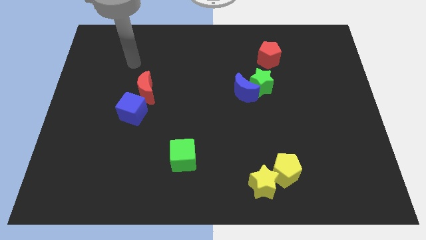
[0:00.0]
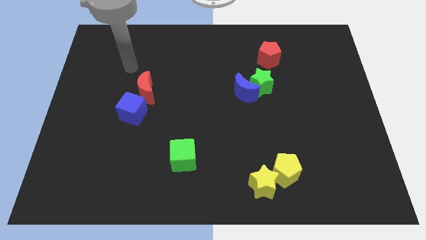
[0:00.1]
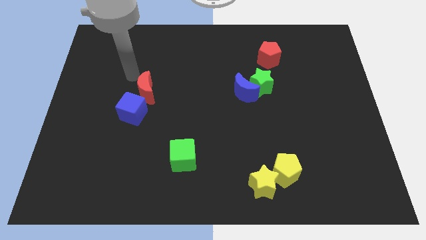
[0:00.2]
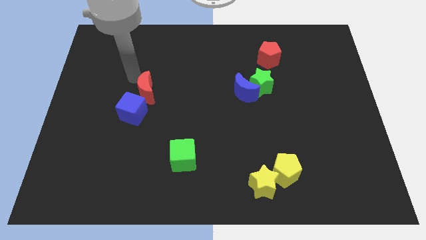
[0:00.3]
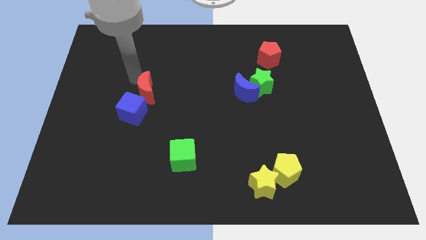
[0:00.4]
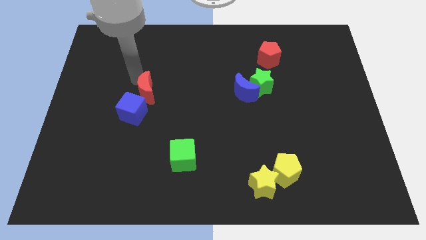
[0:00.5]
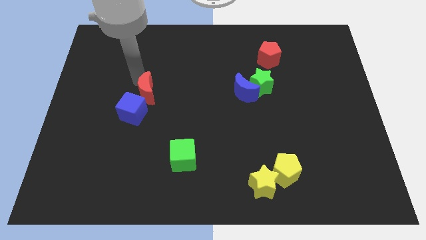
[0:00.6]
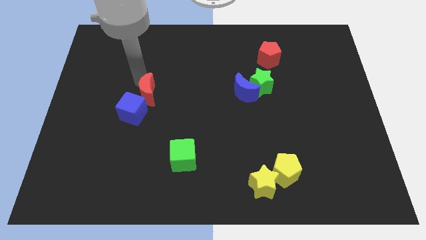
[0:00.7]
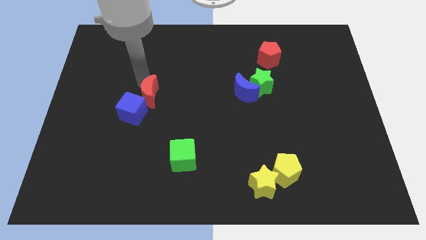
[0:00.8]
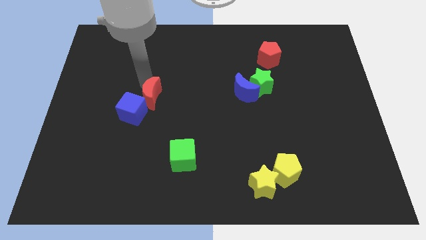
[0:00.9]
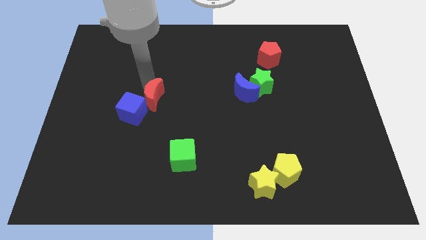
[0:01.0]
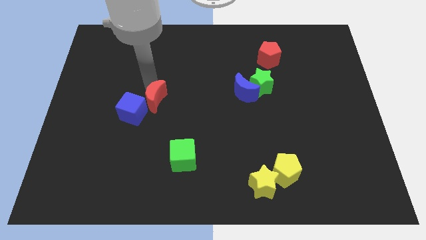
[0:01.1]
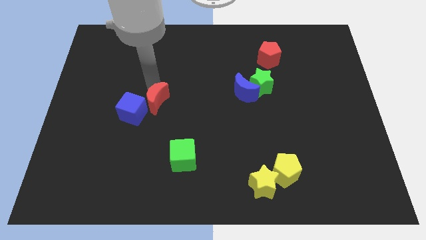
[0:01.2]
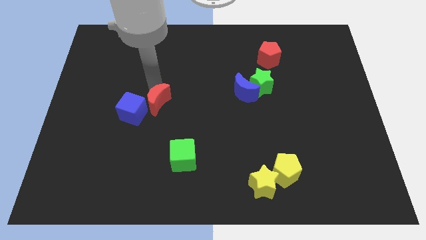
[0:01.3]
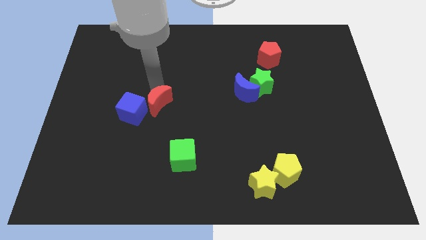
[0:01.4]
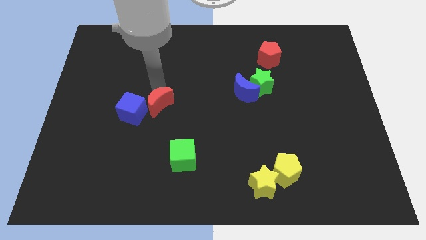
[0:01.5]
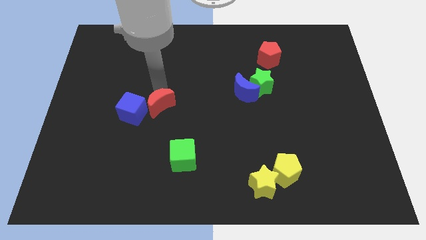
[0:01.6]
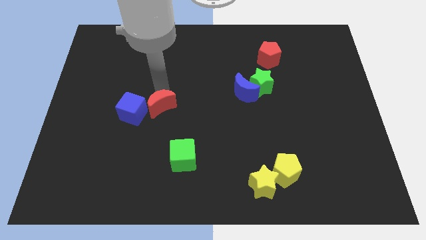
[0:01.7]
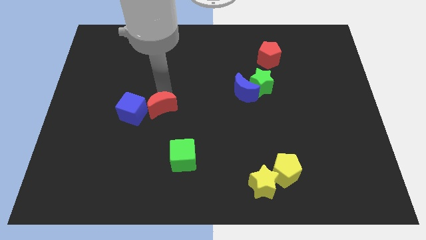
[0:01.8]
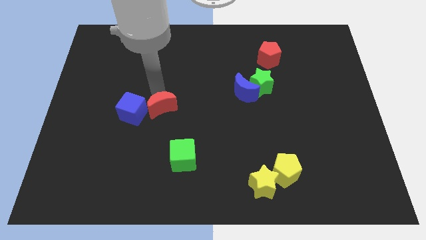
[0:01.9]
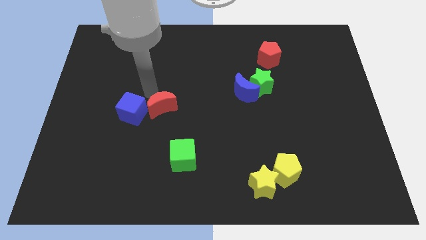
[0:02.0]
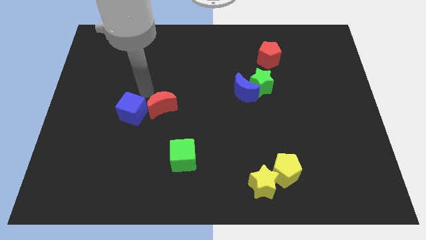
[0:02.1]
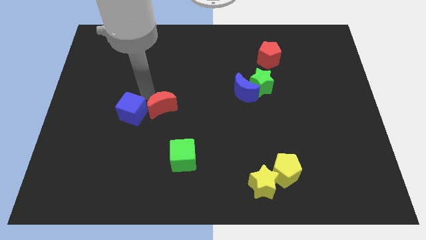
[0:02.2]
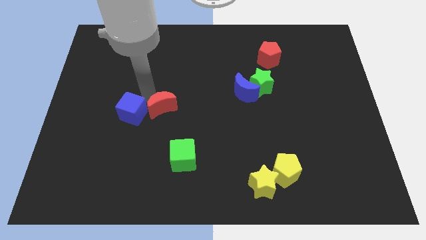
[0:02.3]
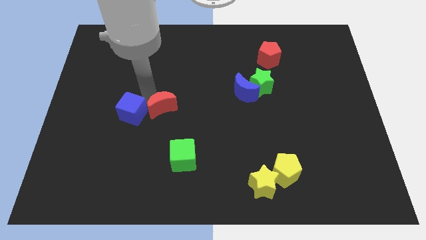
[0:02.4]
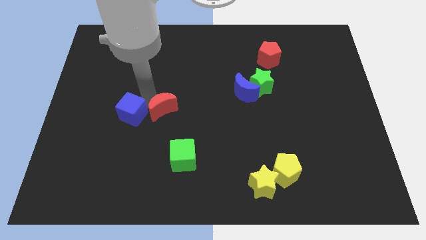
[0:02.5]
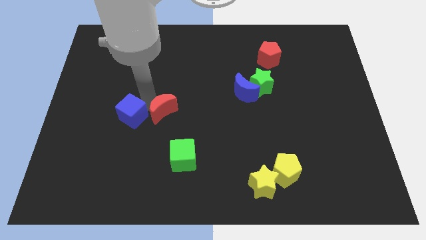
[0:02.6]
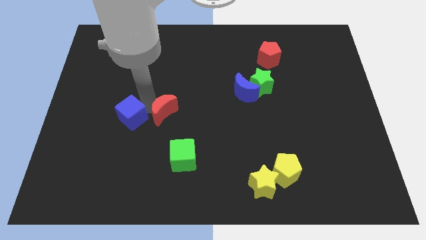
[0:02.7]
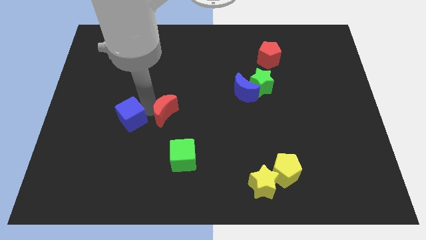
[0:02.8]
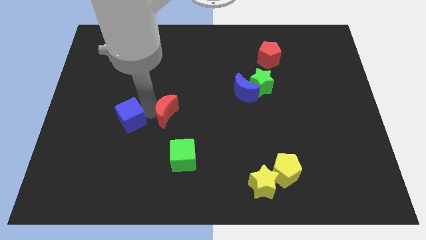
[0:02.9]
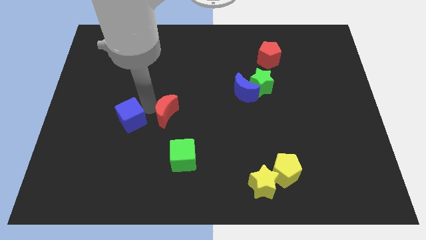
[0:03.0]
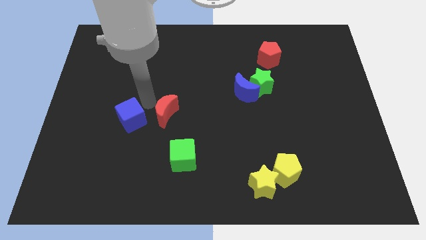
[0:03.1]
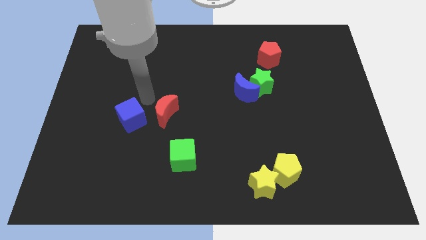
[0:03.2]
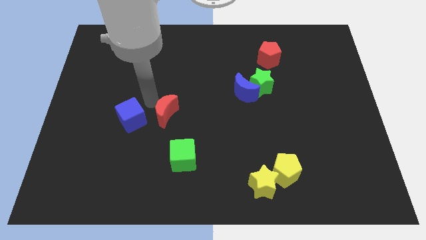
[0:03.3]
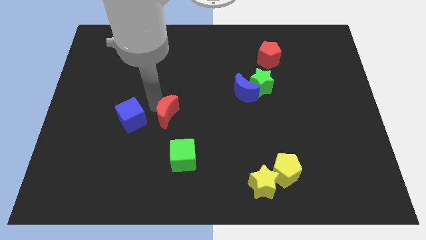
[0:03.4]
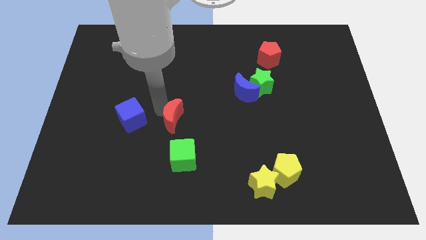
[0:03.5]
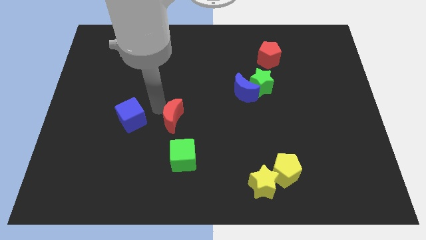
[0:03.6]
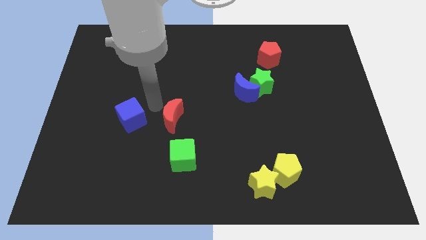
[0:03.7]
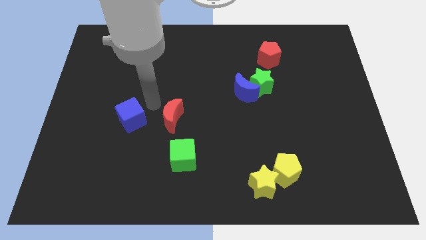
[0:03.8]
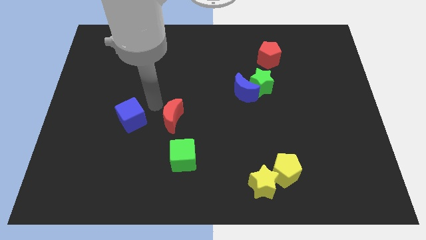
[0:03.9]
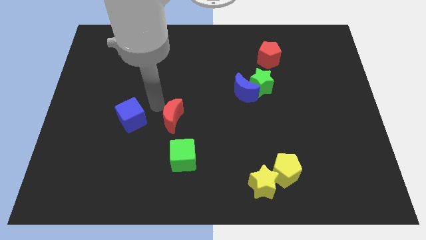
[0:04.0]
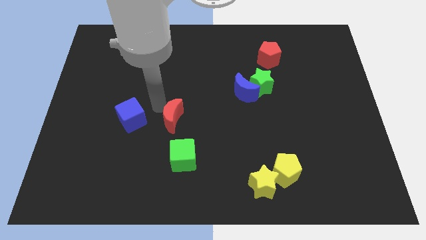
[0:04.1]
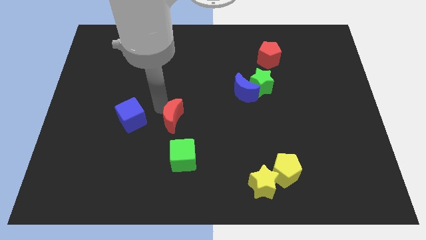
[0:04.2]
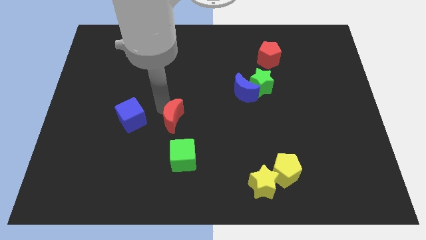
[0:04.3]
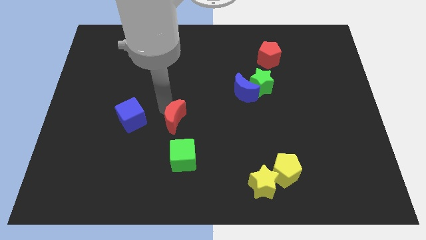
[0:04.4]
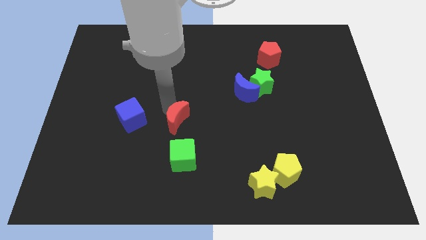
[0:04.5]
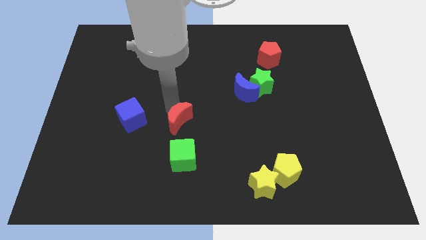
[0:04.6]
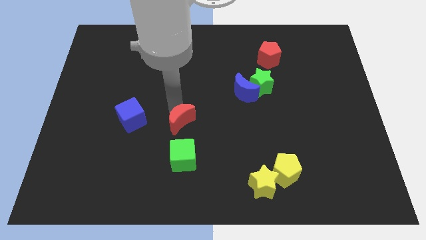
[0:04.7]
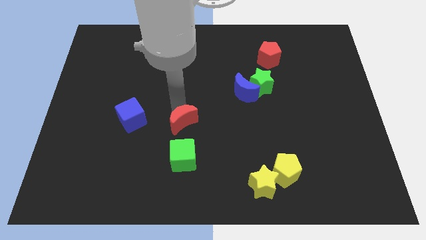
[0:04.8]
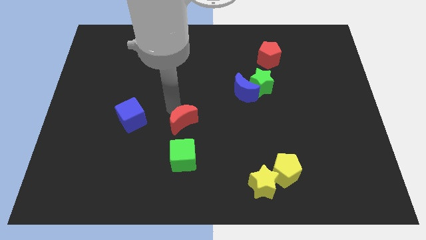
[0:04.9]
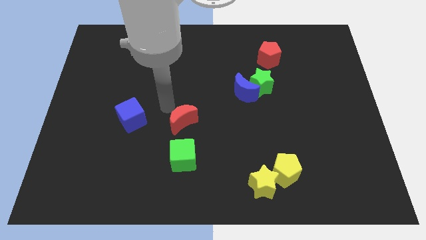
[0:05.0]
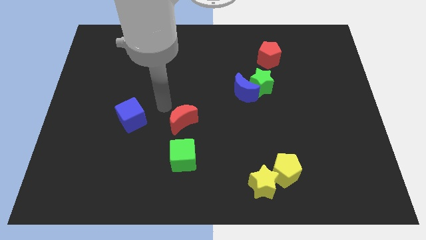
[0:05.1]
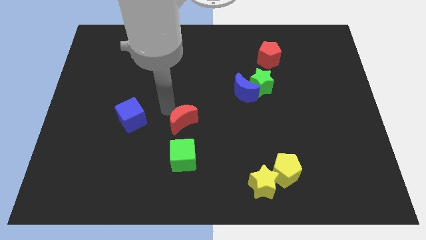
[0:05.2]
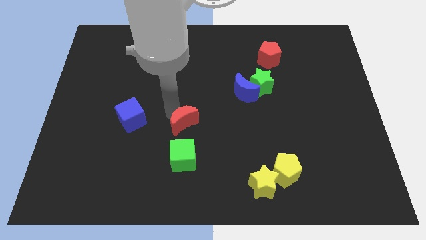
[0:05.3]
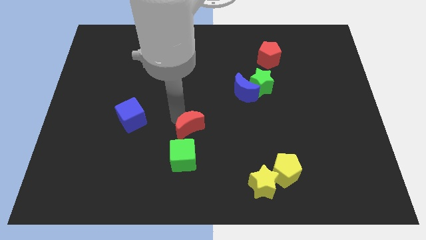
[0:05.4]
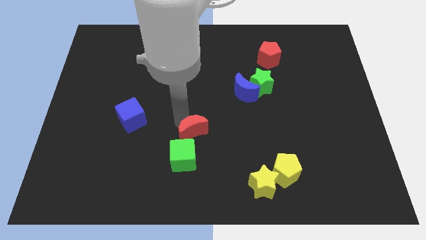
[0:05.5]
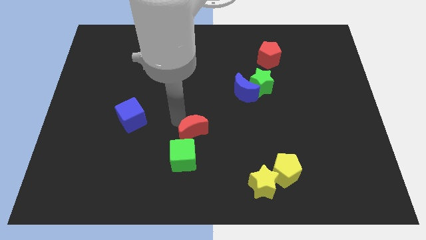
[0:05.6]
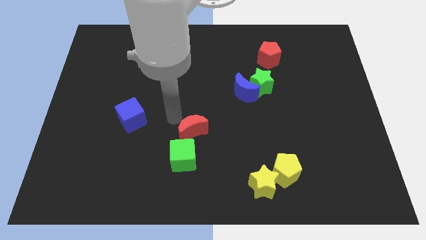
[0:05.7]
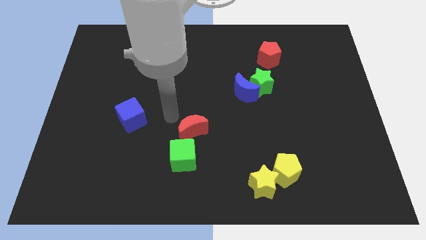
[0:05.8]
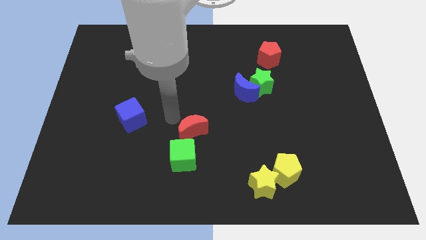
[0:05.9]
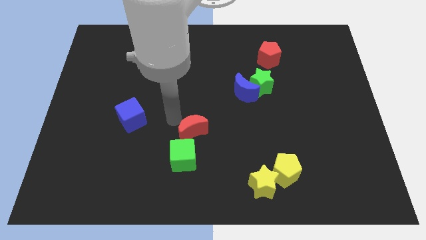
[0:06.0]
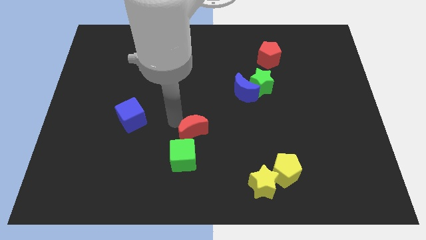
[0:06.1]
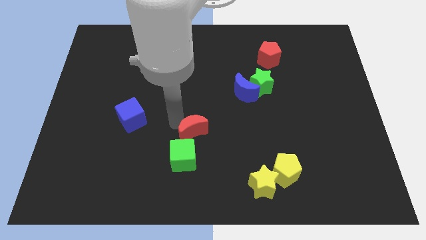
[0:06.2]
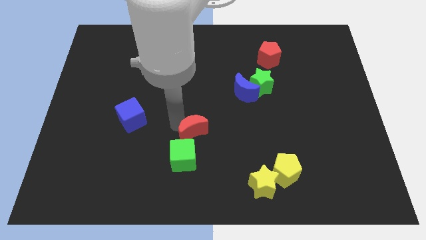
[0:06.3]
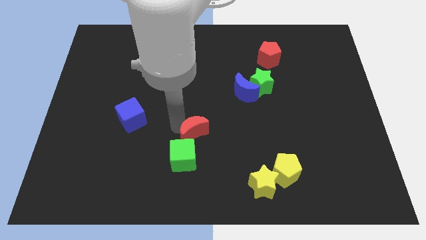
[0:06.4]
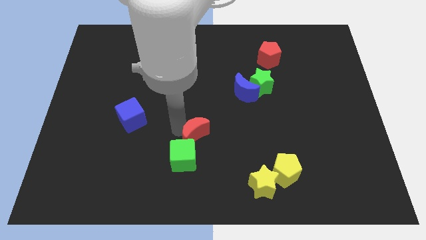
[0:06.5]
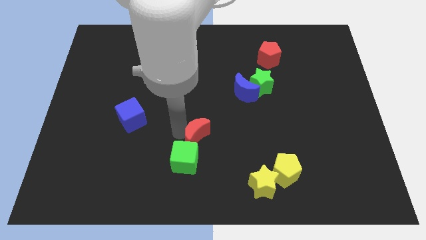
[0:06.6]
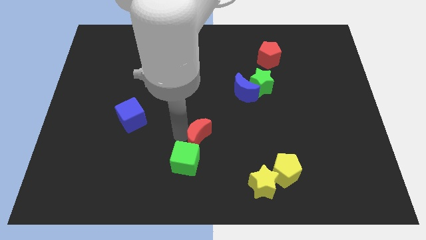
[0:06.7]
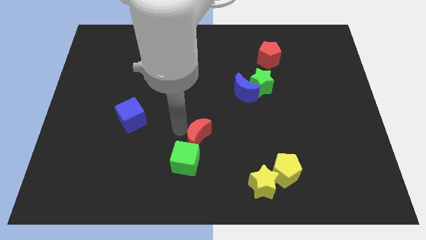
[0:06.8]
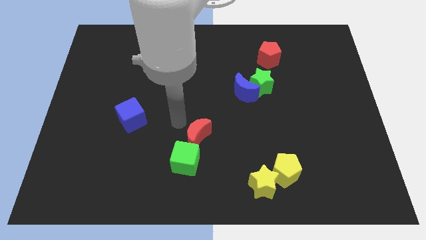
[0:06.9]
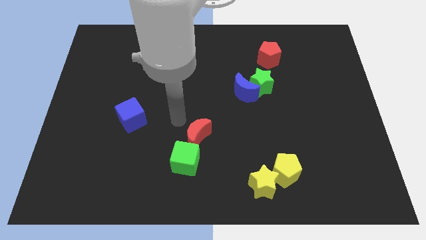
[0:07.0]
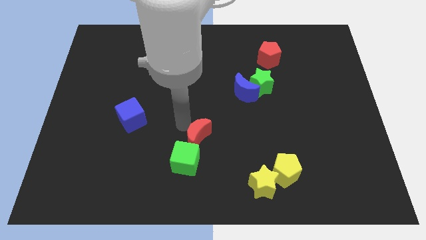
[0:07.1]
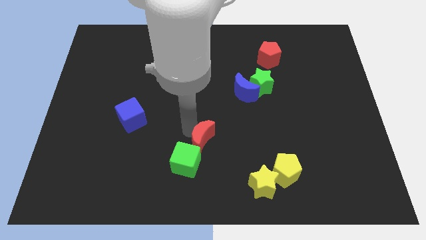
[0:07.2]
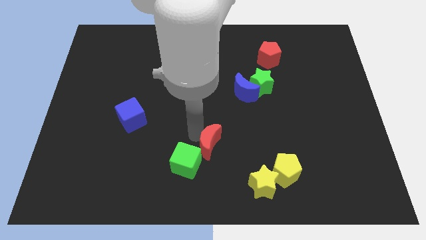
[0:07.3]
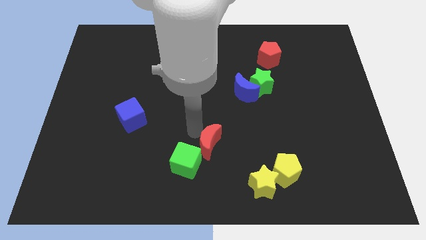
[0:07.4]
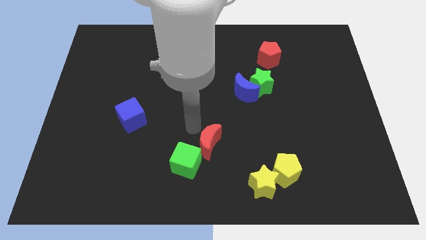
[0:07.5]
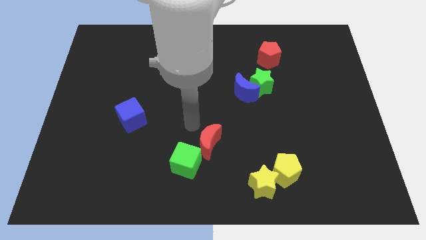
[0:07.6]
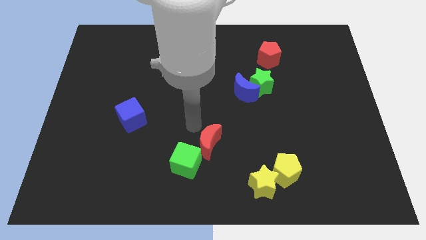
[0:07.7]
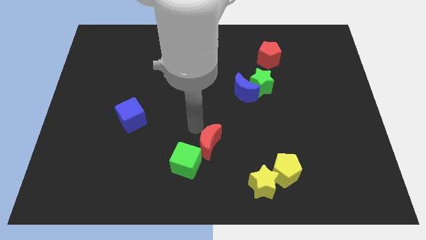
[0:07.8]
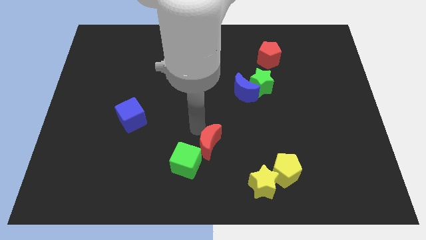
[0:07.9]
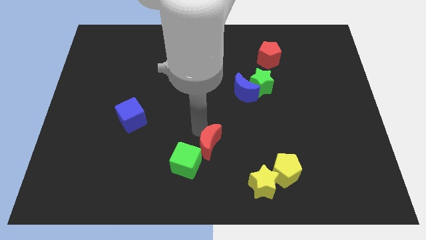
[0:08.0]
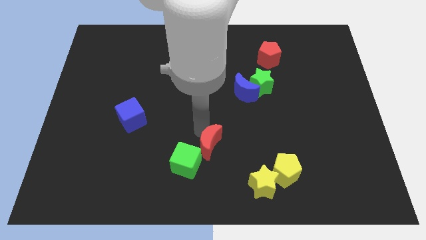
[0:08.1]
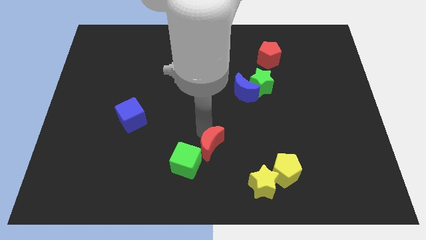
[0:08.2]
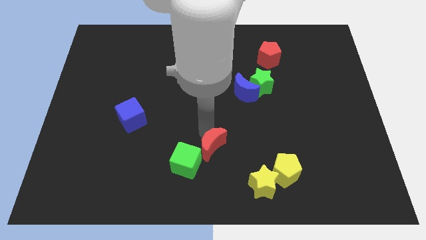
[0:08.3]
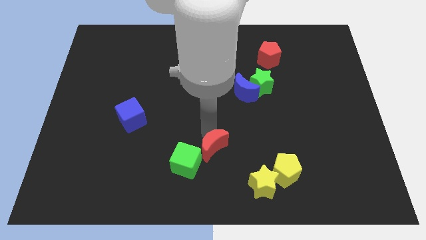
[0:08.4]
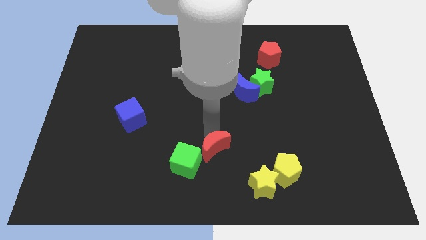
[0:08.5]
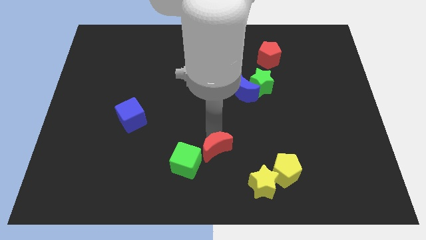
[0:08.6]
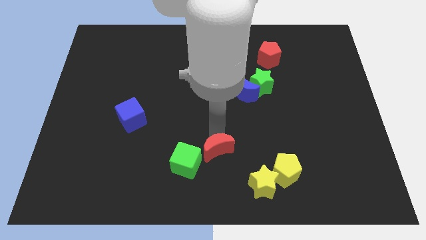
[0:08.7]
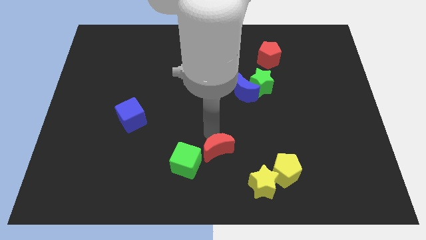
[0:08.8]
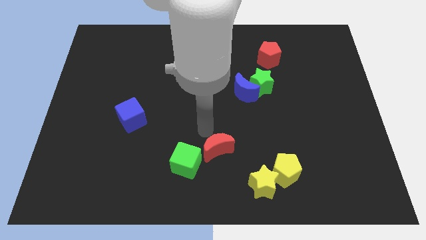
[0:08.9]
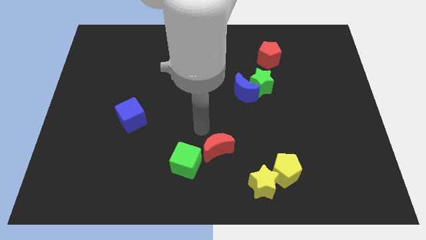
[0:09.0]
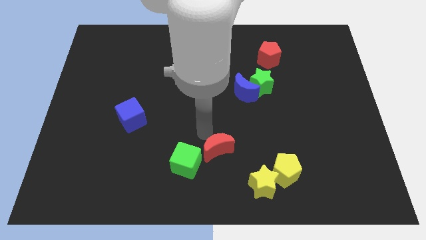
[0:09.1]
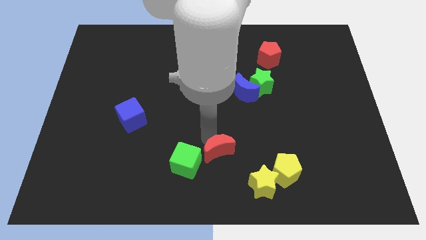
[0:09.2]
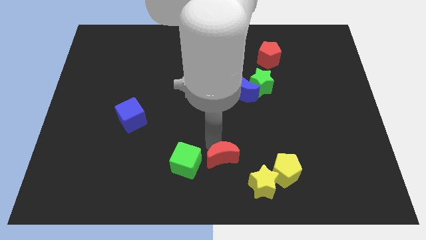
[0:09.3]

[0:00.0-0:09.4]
put the red moon left of the yellow pentagon
